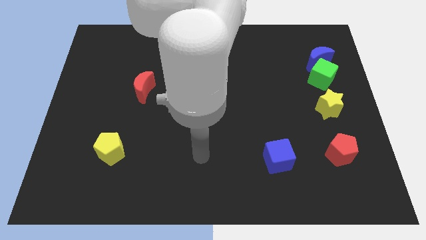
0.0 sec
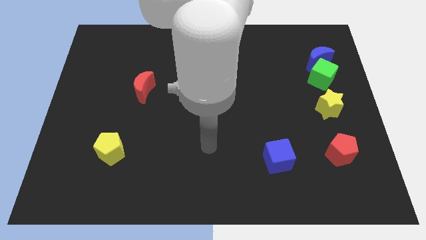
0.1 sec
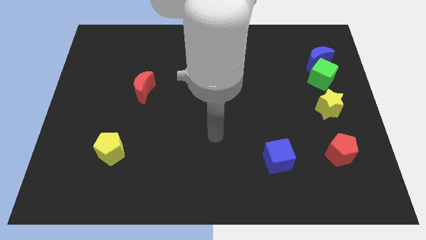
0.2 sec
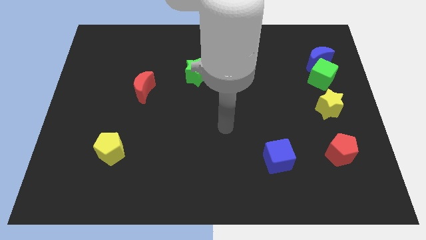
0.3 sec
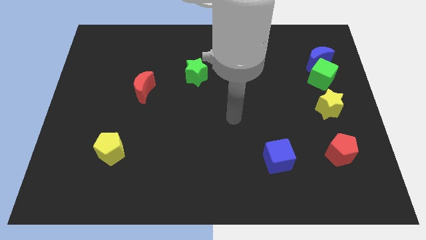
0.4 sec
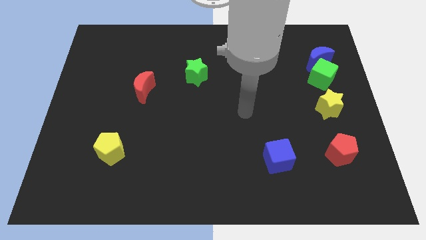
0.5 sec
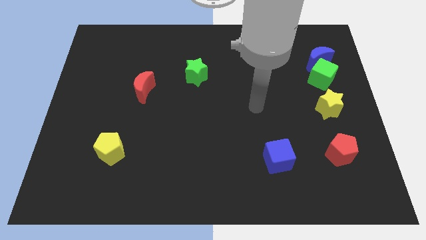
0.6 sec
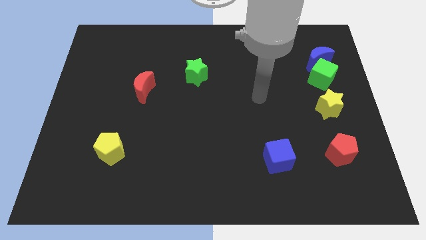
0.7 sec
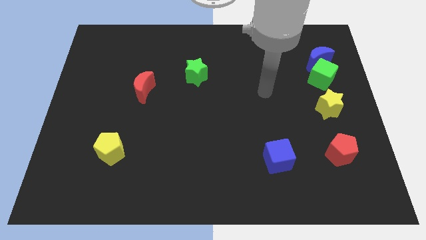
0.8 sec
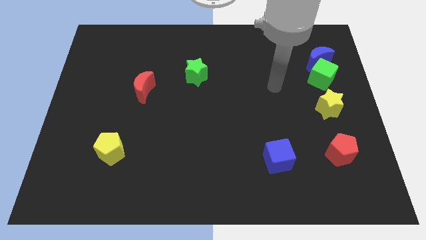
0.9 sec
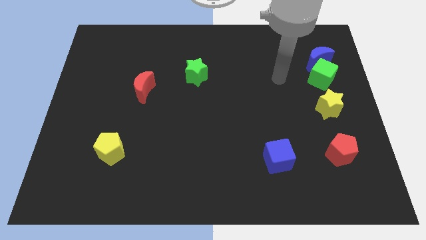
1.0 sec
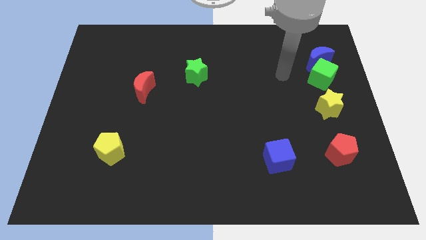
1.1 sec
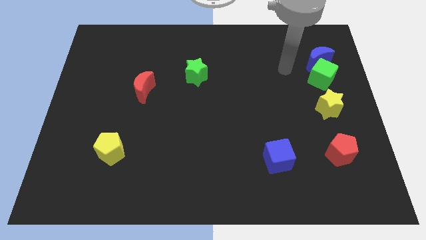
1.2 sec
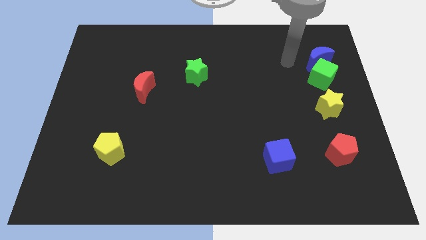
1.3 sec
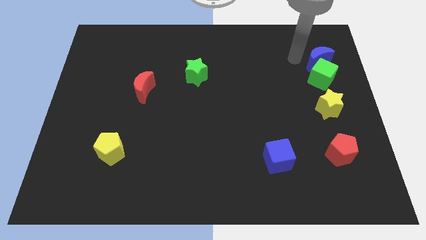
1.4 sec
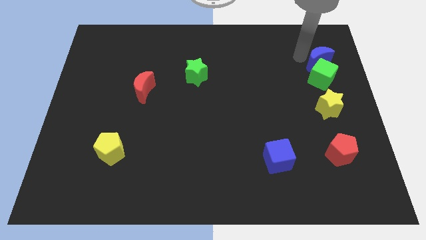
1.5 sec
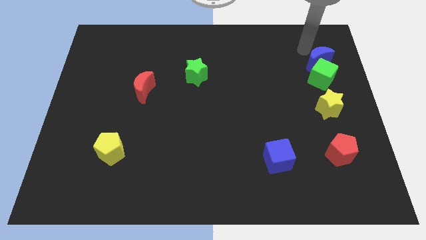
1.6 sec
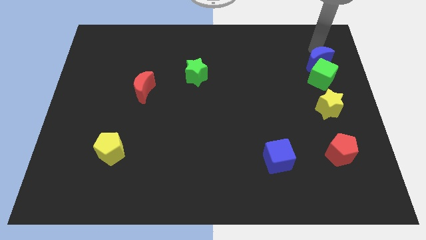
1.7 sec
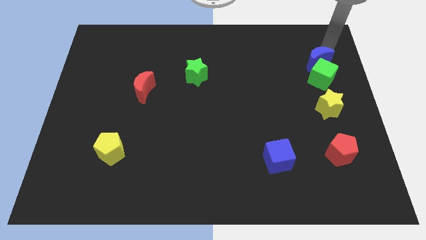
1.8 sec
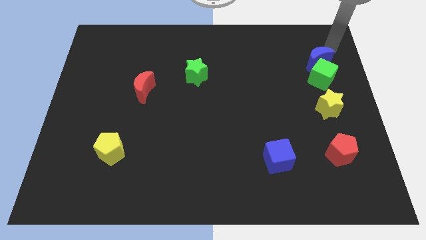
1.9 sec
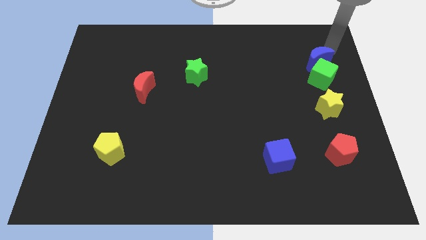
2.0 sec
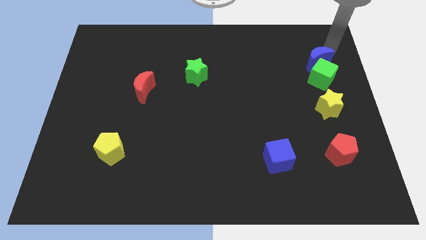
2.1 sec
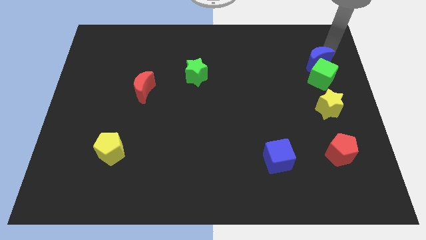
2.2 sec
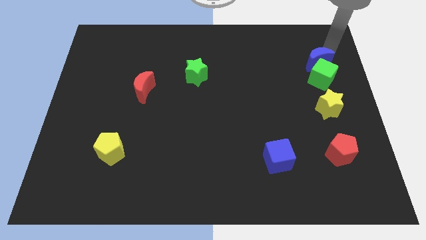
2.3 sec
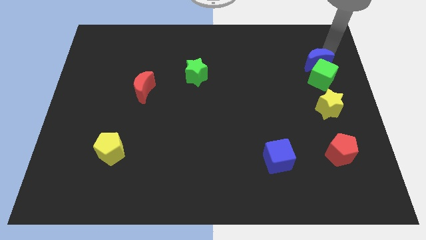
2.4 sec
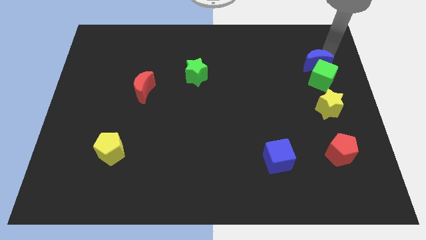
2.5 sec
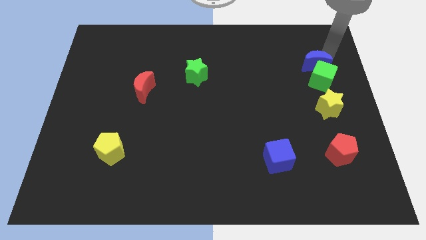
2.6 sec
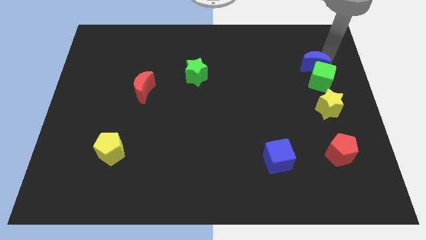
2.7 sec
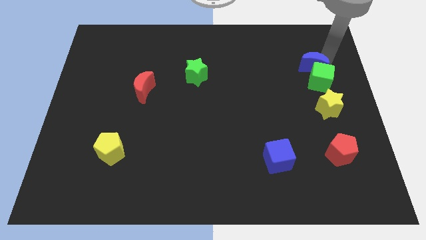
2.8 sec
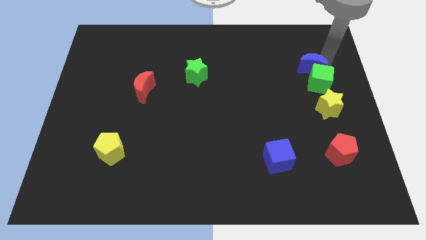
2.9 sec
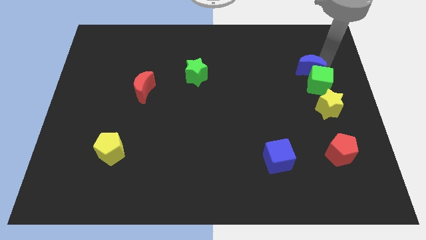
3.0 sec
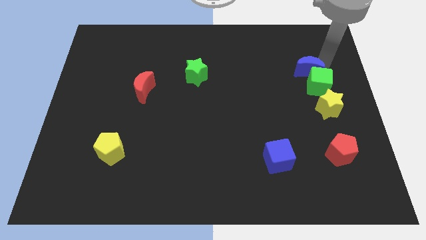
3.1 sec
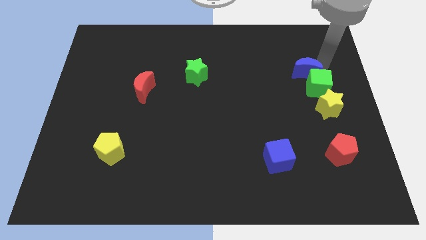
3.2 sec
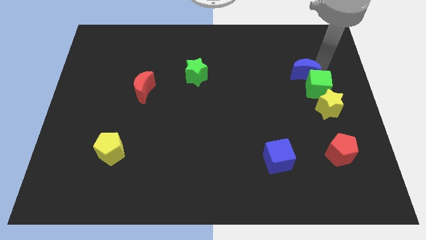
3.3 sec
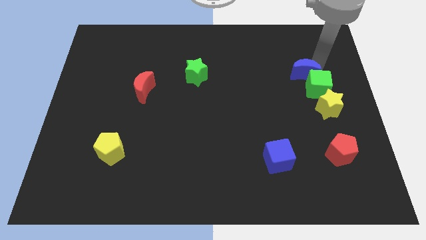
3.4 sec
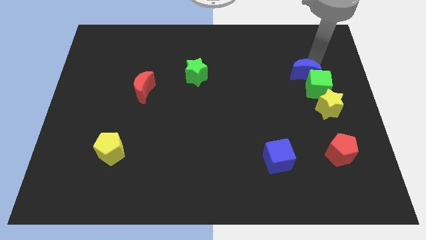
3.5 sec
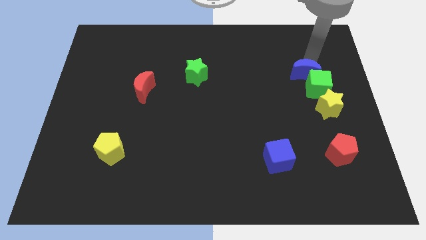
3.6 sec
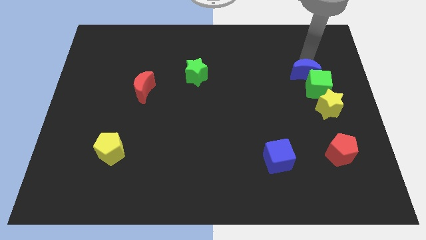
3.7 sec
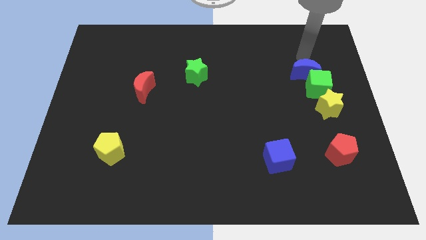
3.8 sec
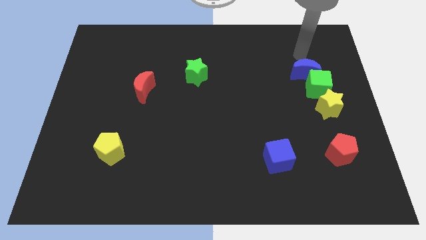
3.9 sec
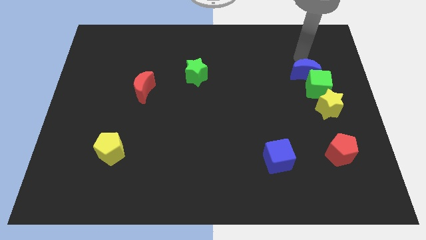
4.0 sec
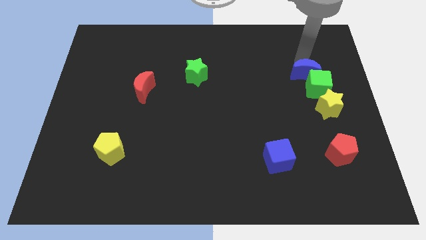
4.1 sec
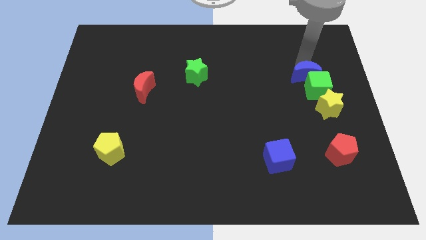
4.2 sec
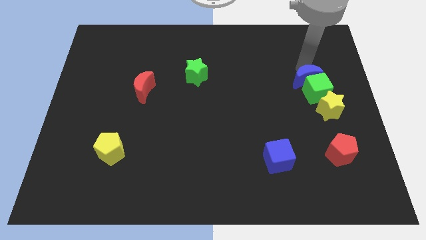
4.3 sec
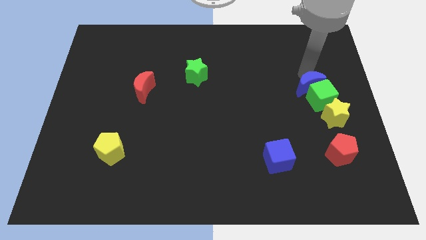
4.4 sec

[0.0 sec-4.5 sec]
push the blue moon down a bit

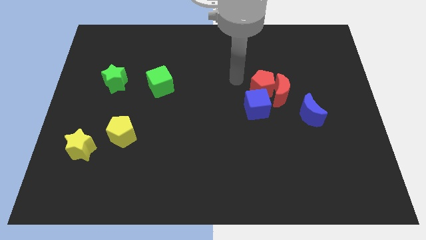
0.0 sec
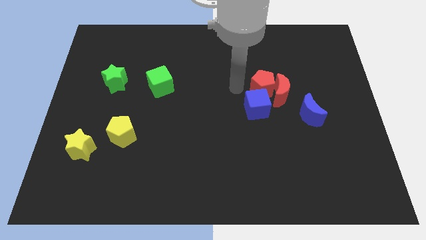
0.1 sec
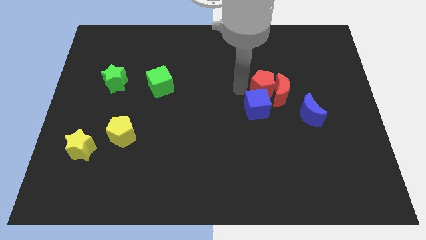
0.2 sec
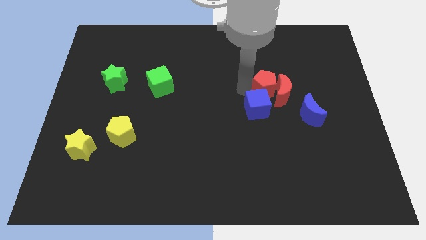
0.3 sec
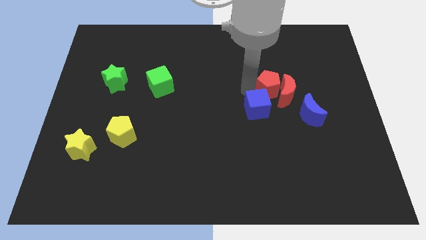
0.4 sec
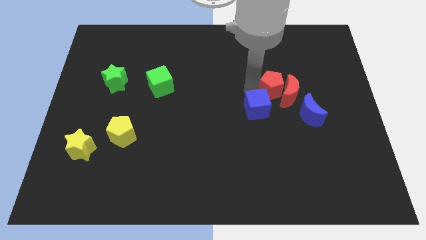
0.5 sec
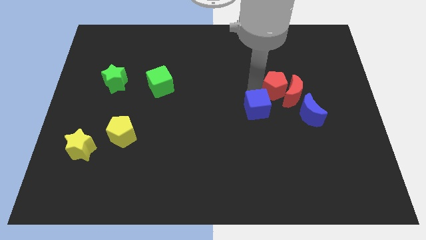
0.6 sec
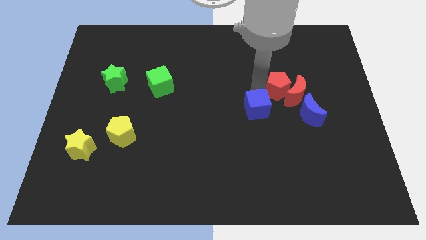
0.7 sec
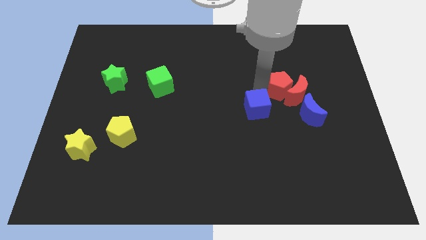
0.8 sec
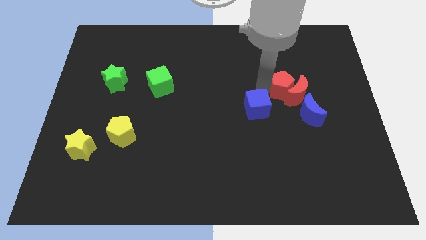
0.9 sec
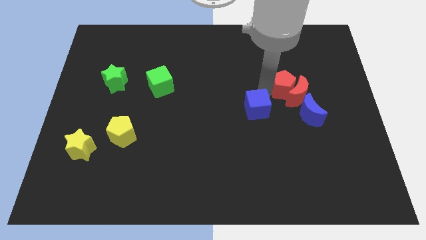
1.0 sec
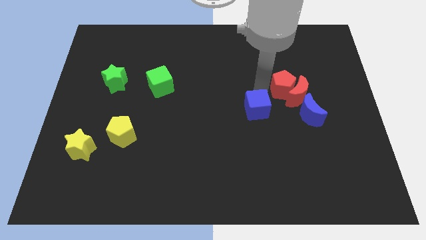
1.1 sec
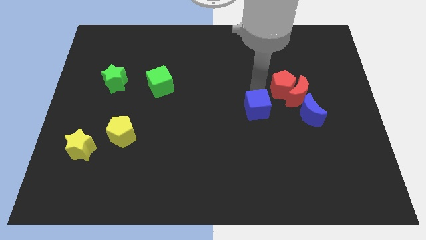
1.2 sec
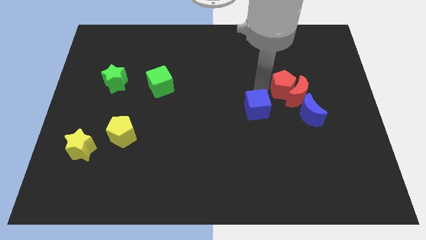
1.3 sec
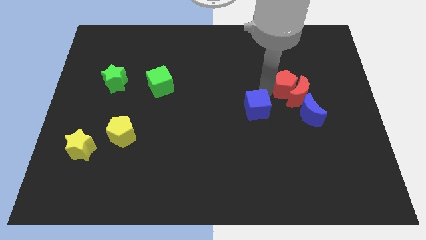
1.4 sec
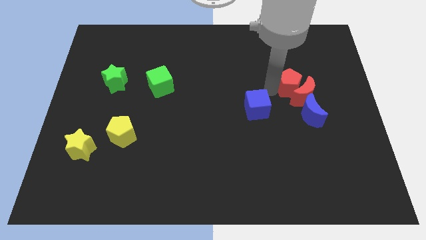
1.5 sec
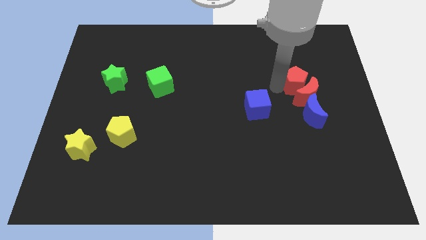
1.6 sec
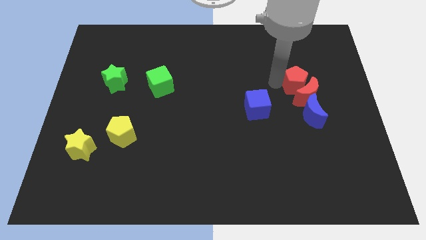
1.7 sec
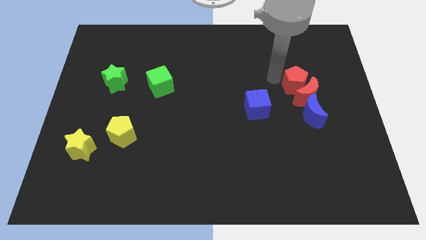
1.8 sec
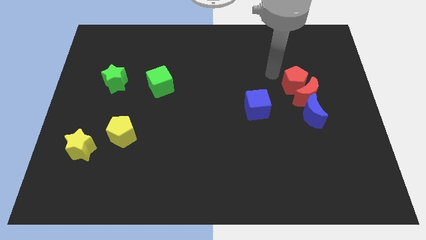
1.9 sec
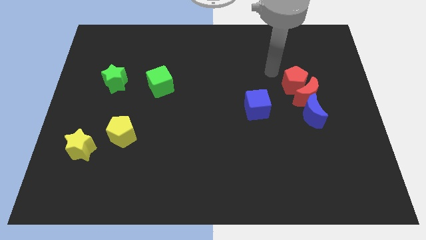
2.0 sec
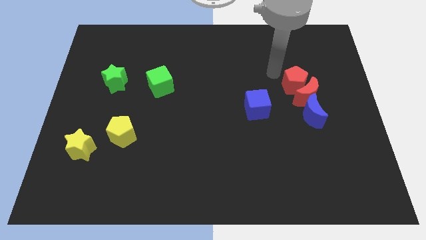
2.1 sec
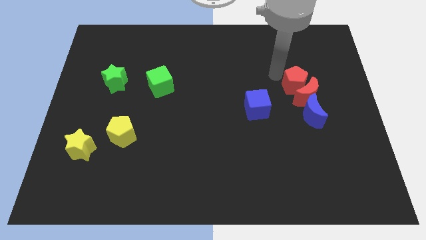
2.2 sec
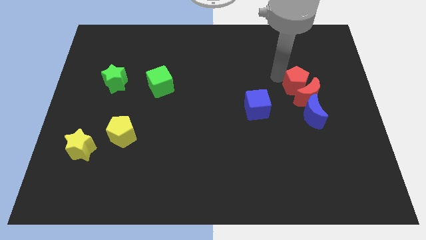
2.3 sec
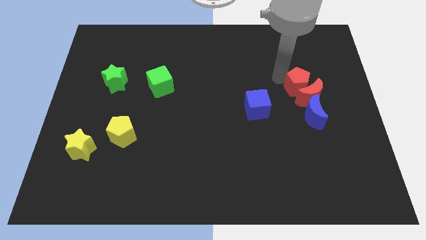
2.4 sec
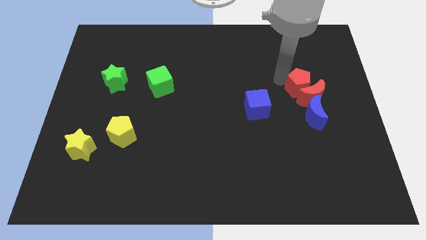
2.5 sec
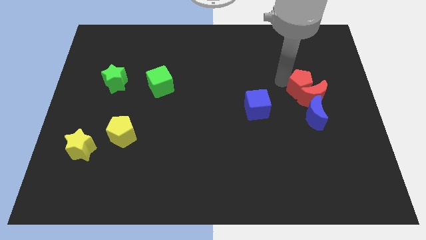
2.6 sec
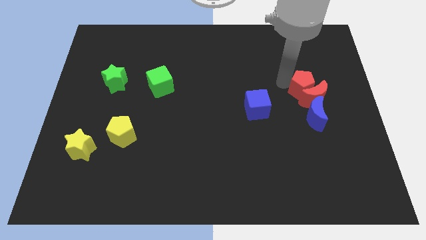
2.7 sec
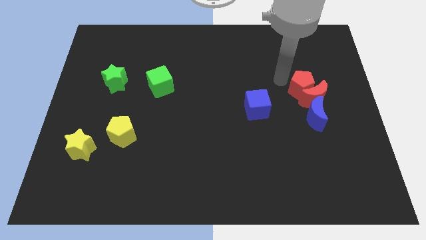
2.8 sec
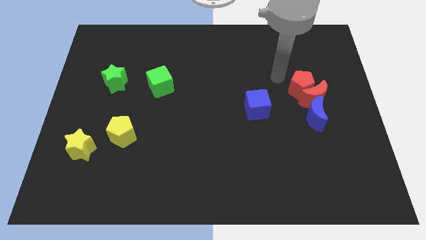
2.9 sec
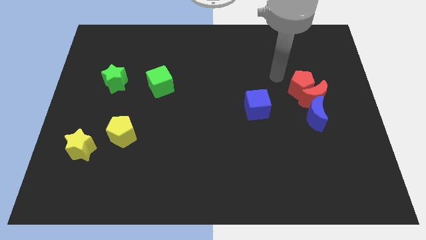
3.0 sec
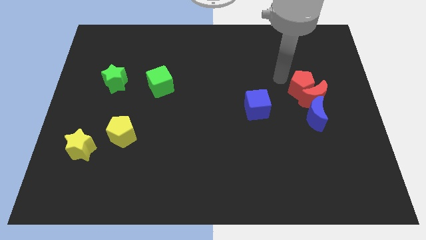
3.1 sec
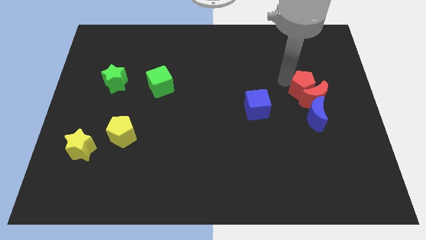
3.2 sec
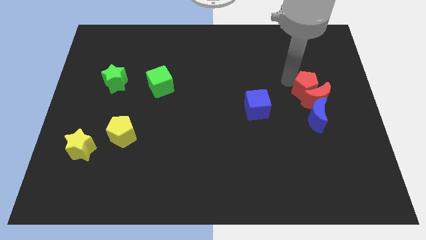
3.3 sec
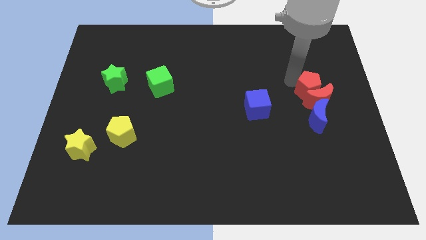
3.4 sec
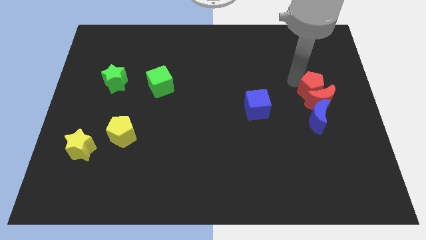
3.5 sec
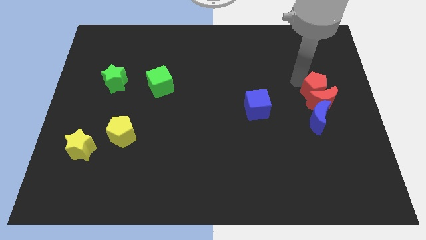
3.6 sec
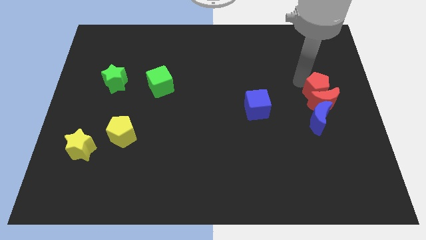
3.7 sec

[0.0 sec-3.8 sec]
slide the red pentagon diagonally down and right a little bit
